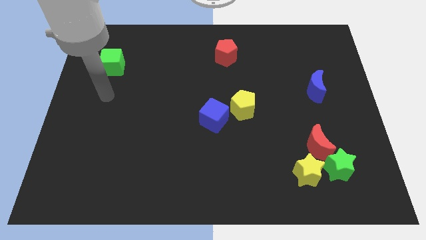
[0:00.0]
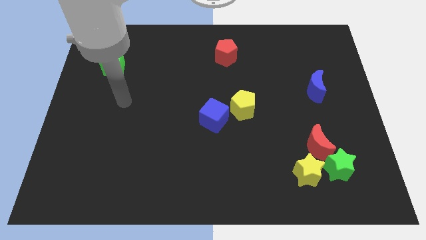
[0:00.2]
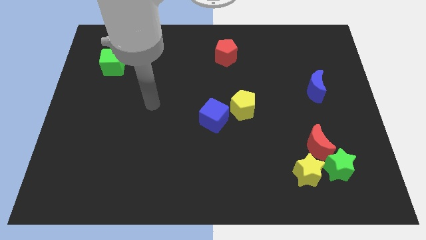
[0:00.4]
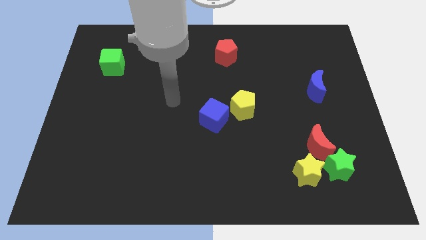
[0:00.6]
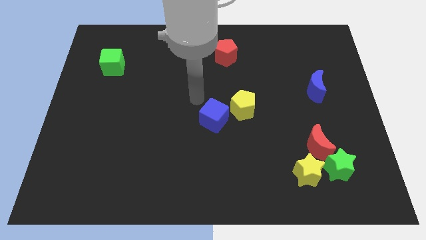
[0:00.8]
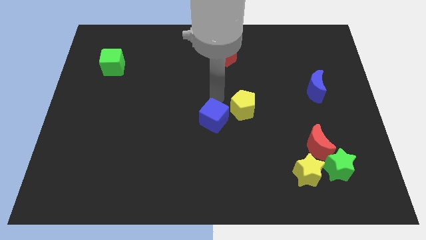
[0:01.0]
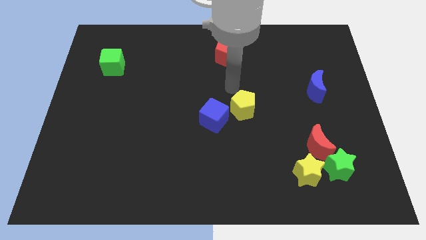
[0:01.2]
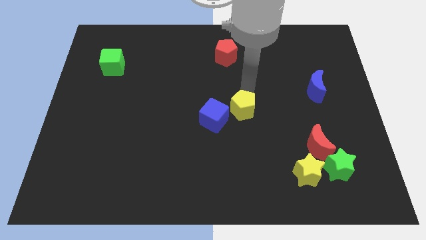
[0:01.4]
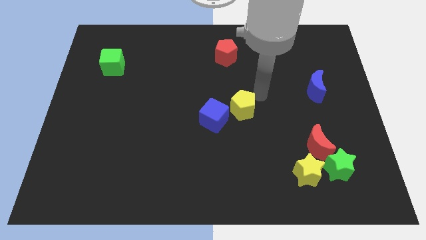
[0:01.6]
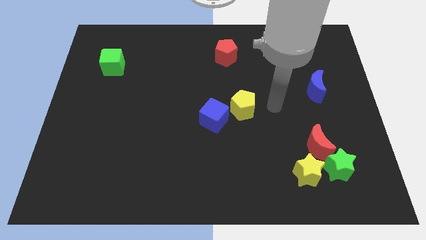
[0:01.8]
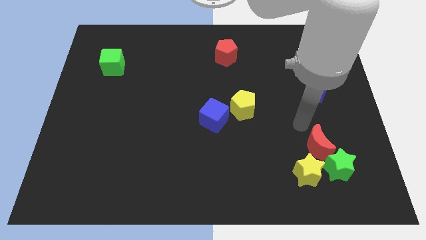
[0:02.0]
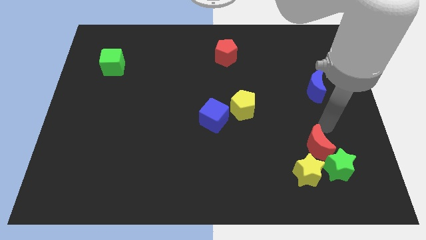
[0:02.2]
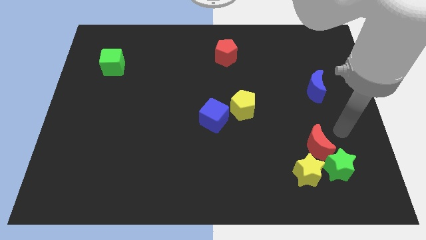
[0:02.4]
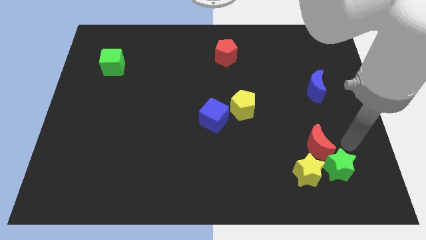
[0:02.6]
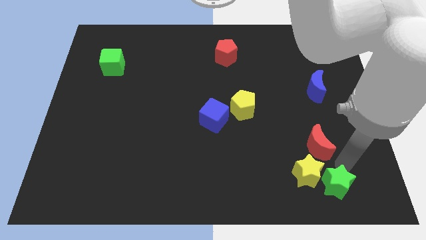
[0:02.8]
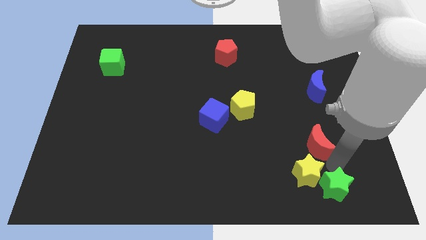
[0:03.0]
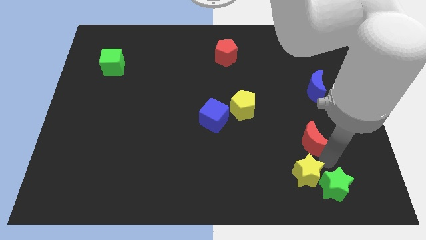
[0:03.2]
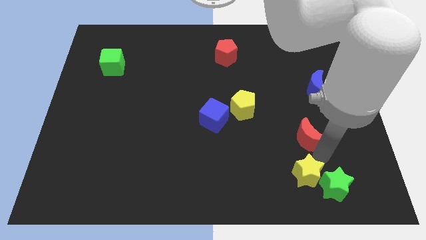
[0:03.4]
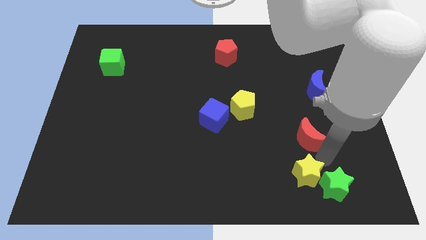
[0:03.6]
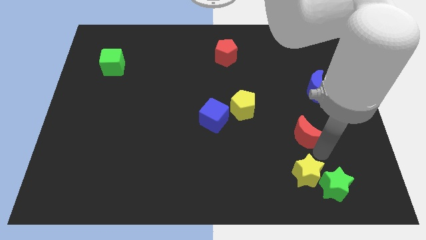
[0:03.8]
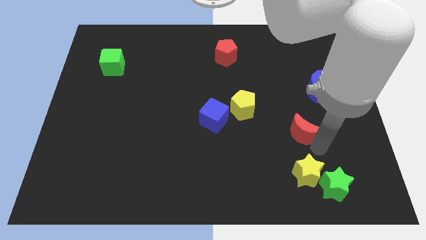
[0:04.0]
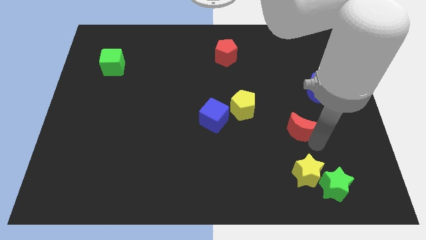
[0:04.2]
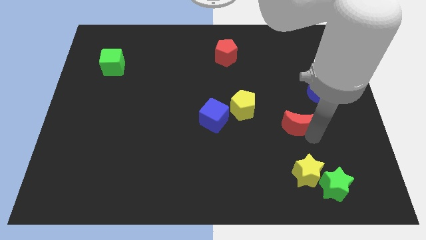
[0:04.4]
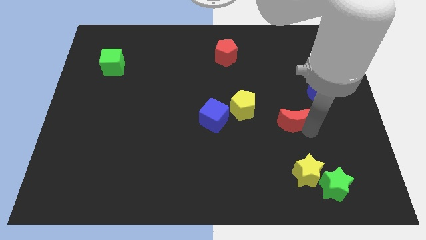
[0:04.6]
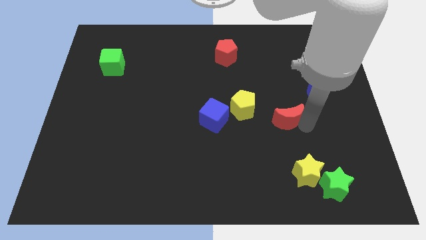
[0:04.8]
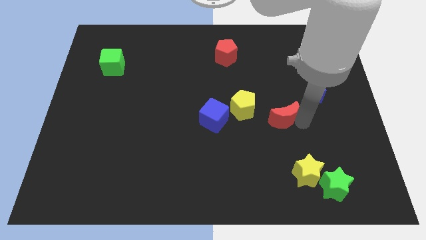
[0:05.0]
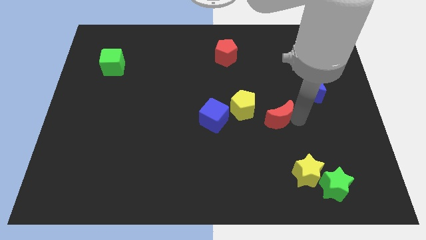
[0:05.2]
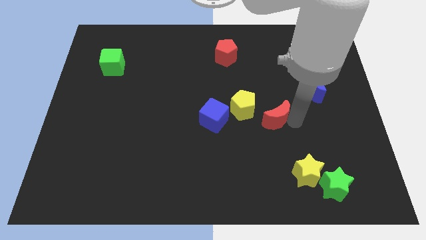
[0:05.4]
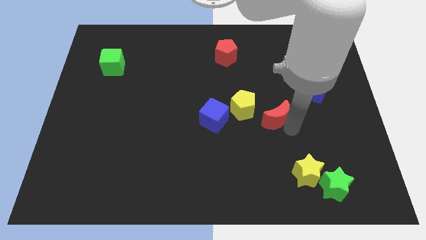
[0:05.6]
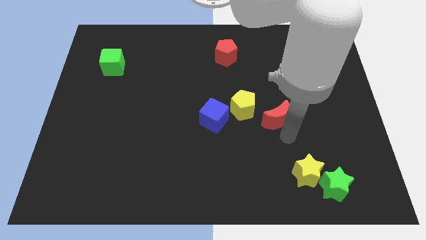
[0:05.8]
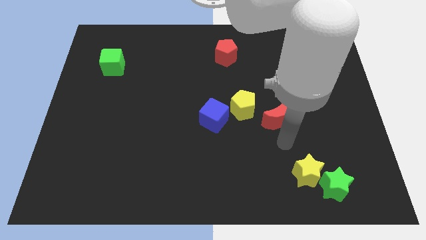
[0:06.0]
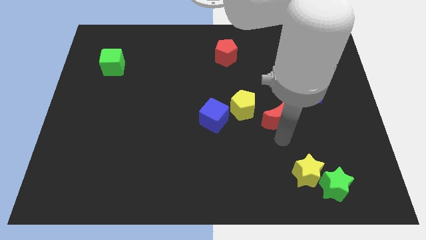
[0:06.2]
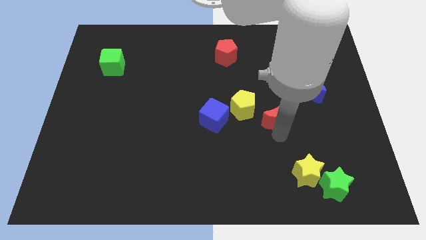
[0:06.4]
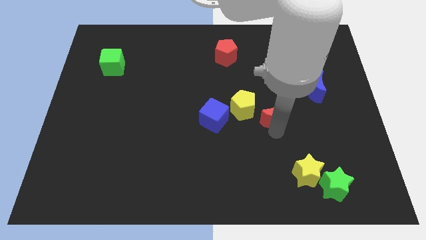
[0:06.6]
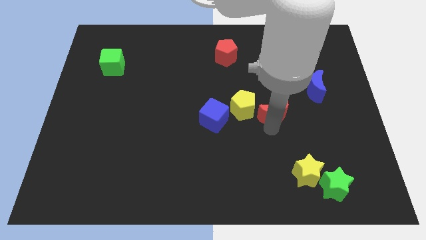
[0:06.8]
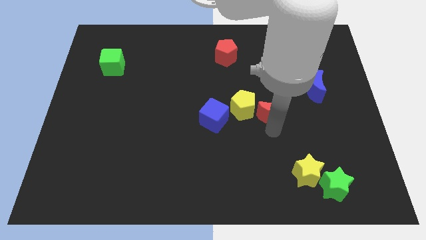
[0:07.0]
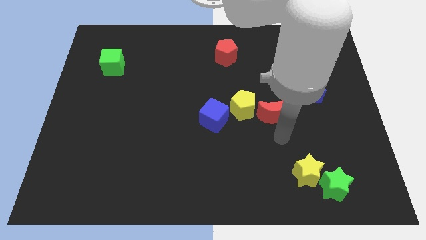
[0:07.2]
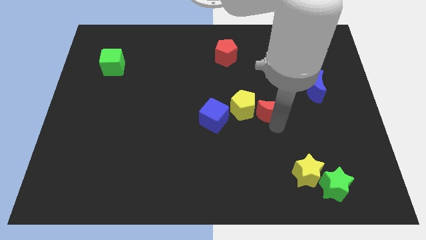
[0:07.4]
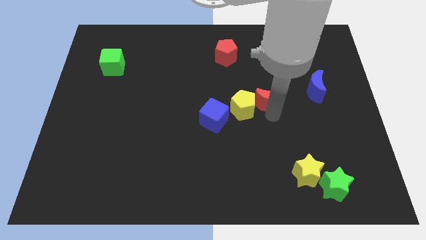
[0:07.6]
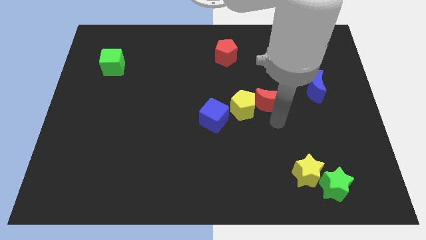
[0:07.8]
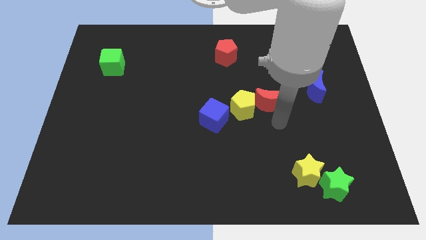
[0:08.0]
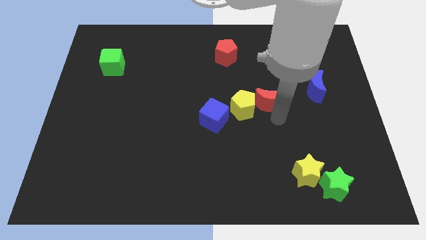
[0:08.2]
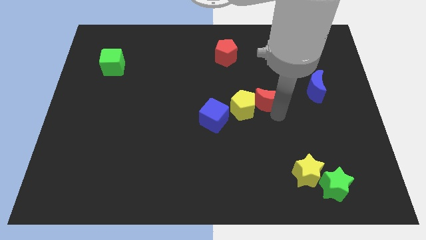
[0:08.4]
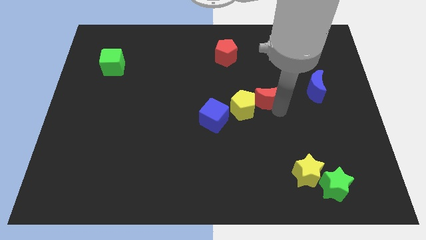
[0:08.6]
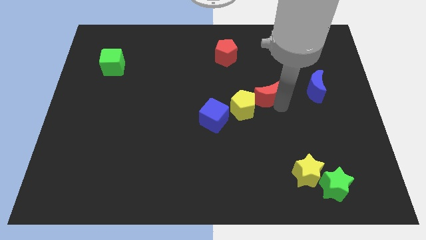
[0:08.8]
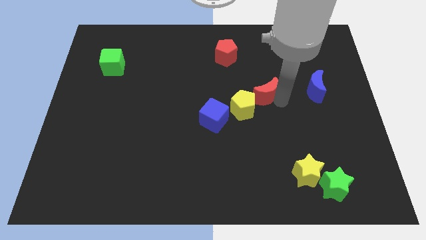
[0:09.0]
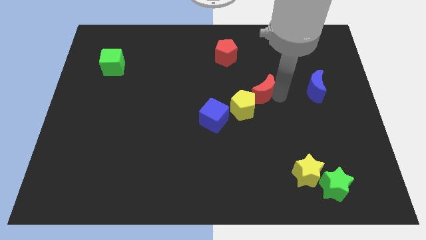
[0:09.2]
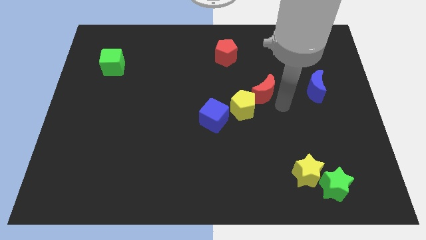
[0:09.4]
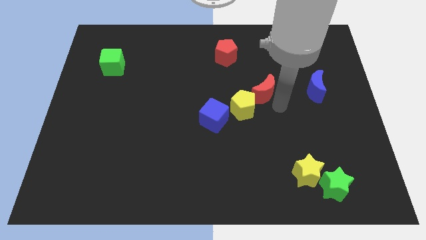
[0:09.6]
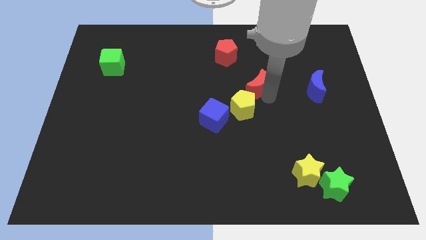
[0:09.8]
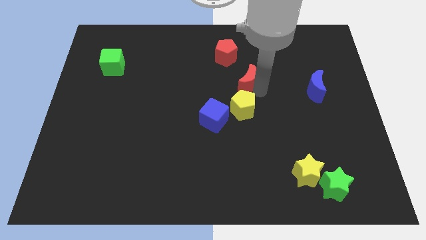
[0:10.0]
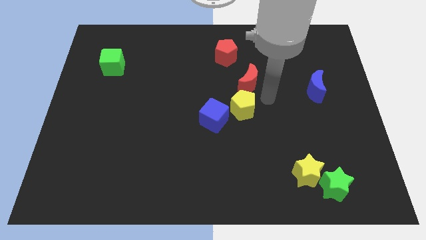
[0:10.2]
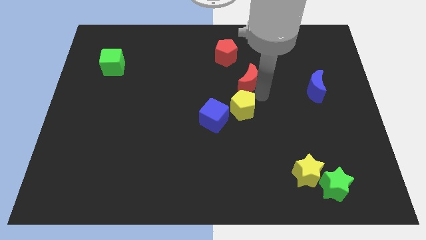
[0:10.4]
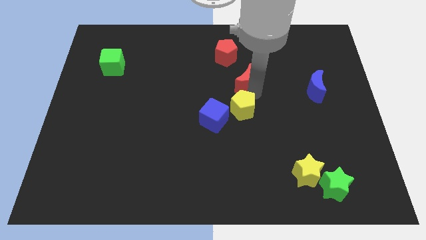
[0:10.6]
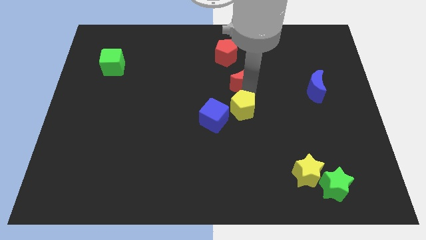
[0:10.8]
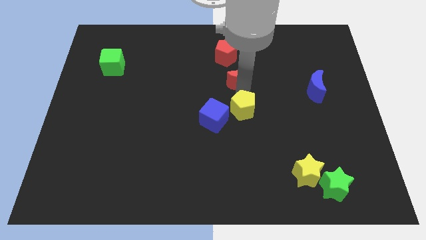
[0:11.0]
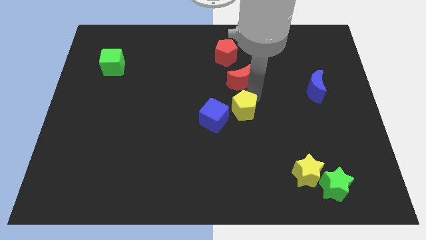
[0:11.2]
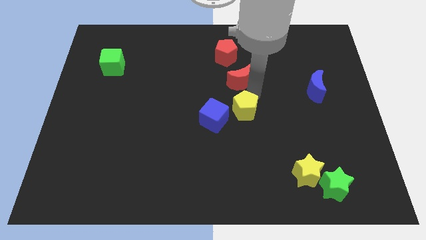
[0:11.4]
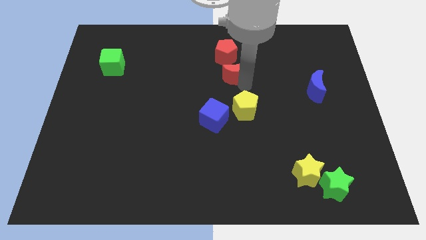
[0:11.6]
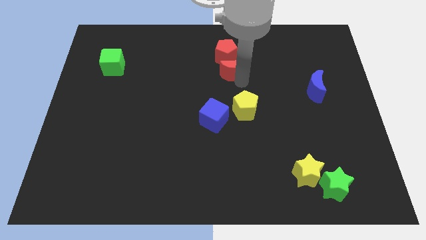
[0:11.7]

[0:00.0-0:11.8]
put the red moon close to the red pentagon

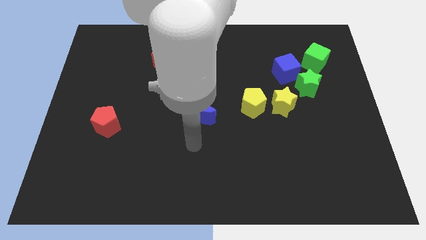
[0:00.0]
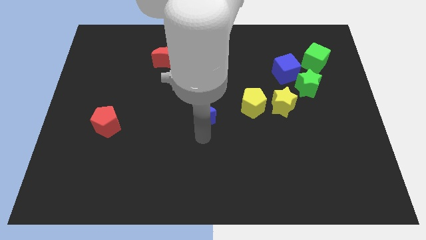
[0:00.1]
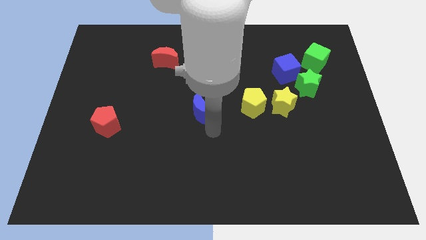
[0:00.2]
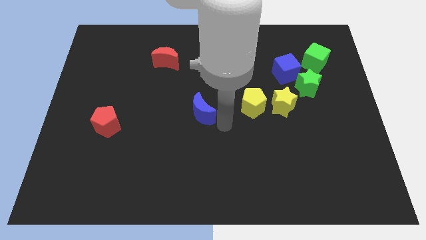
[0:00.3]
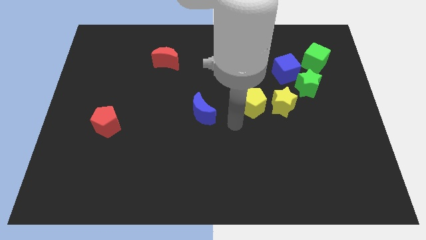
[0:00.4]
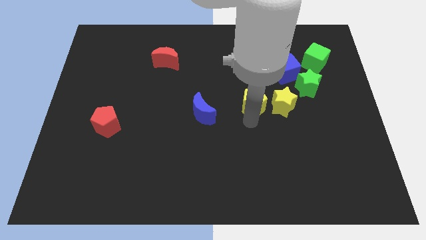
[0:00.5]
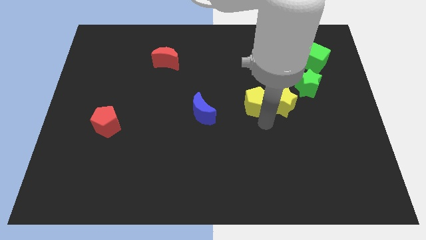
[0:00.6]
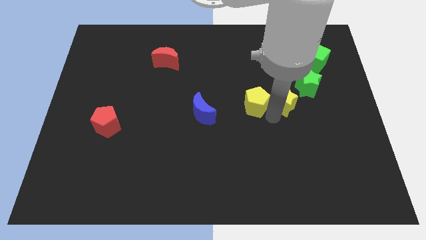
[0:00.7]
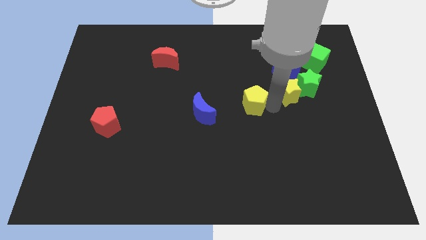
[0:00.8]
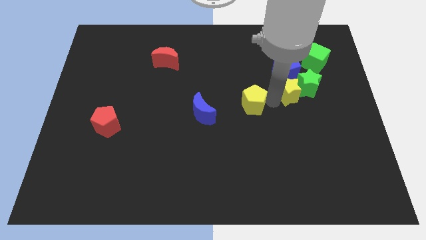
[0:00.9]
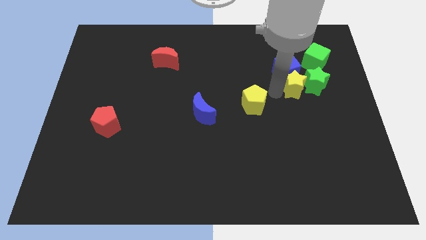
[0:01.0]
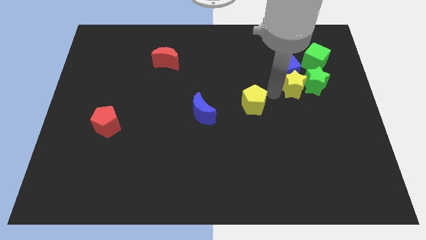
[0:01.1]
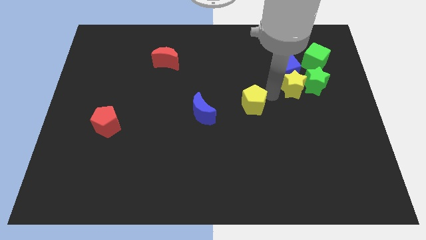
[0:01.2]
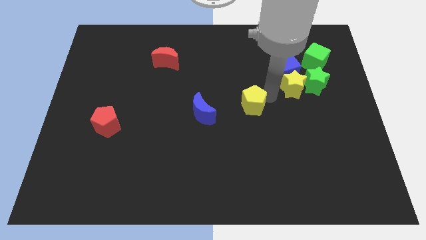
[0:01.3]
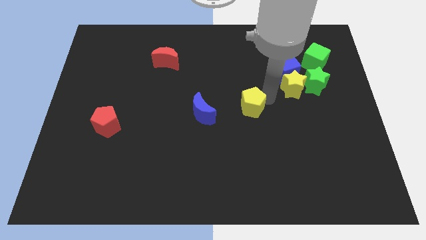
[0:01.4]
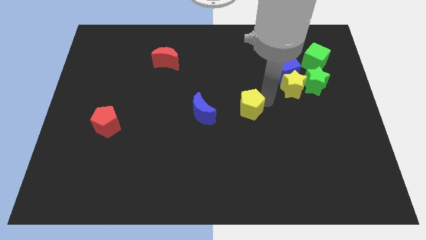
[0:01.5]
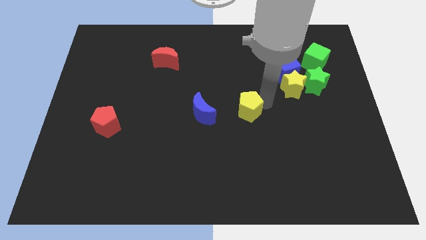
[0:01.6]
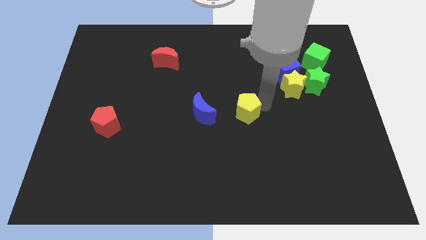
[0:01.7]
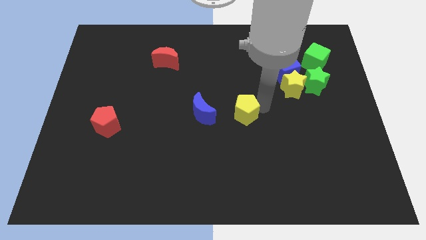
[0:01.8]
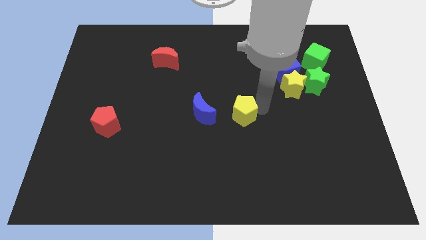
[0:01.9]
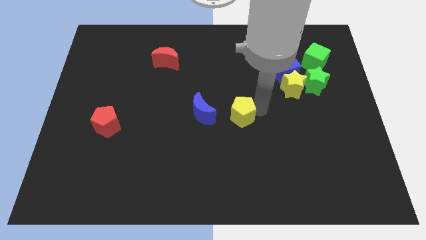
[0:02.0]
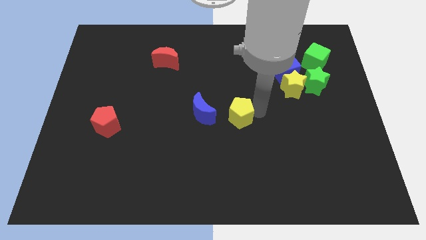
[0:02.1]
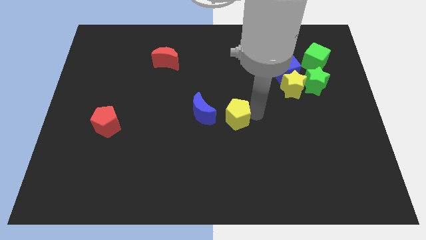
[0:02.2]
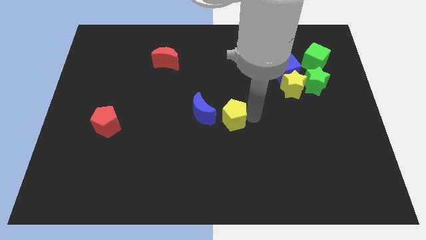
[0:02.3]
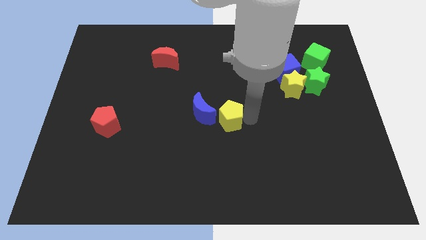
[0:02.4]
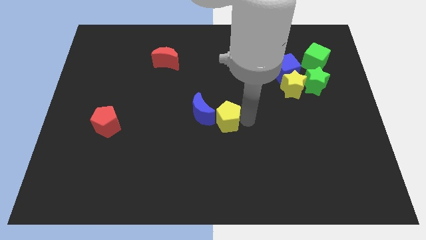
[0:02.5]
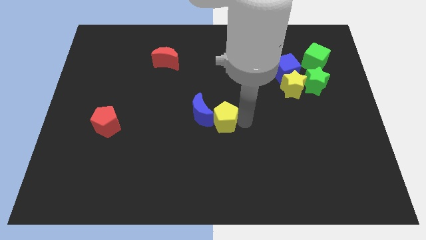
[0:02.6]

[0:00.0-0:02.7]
push the yellow pentagon next to the blue moon
